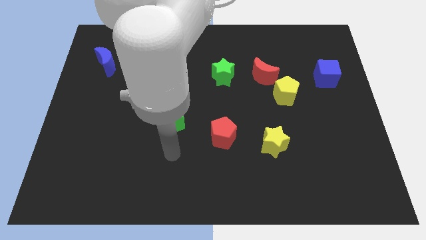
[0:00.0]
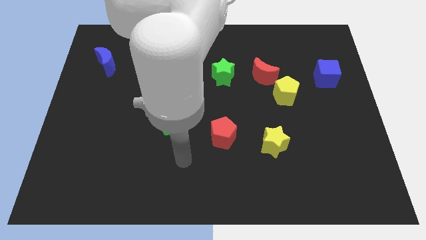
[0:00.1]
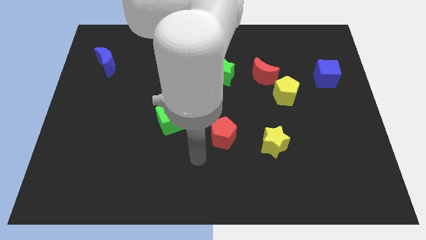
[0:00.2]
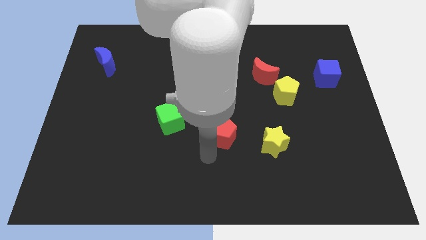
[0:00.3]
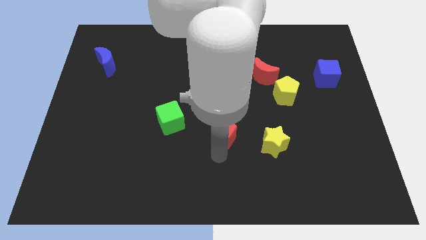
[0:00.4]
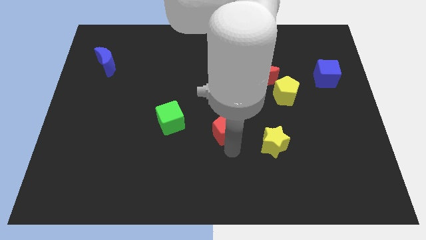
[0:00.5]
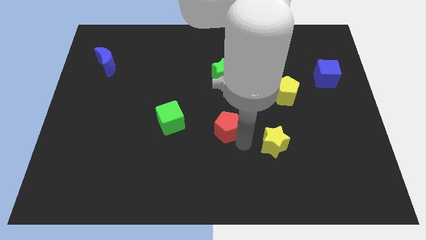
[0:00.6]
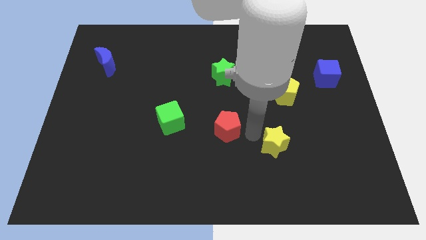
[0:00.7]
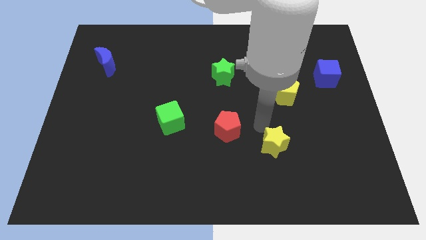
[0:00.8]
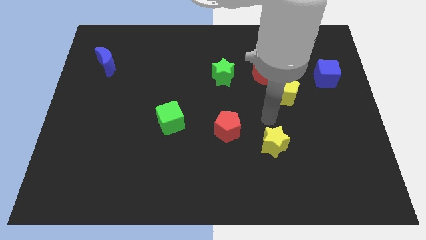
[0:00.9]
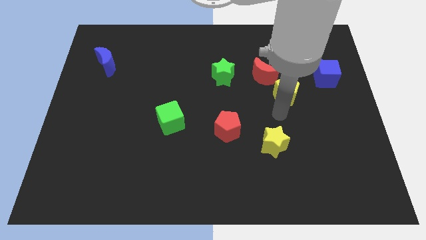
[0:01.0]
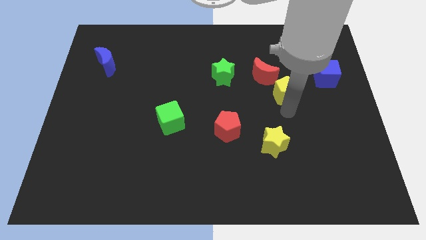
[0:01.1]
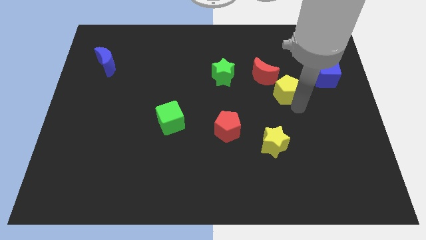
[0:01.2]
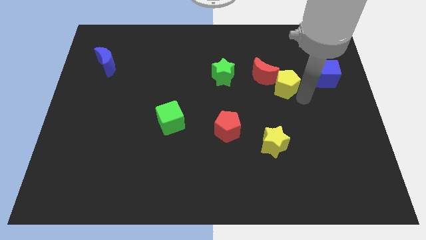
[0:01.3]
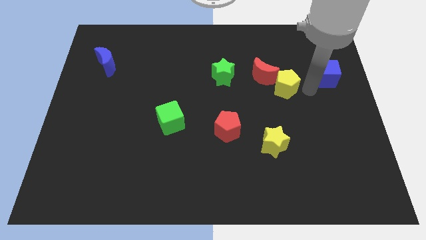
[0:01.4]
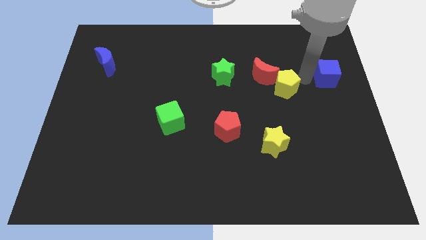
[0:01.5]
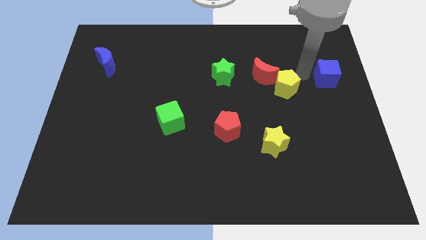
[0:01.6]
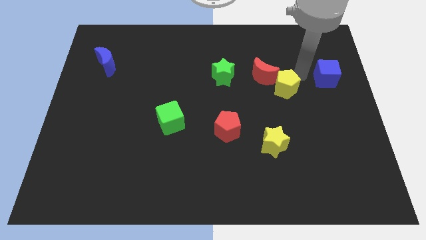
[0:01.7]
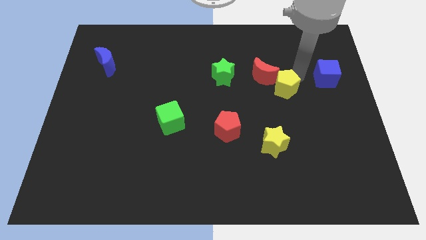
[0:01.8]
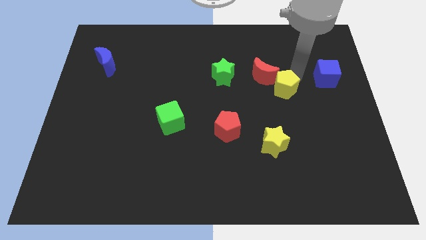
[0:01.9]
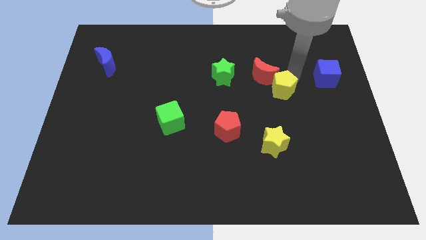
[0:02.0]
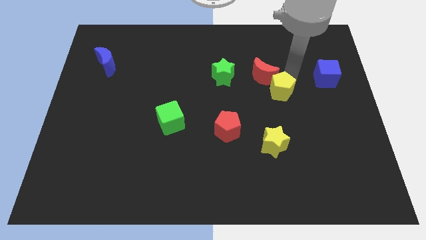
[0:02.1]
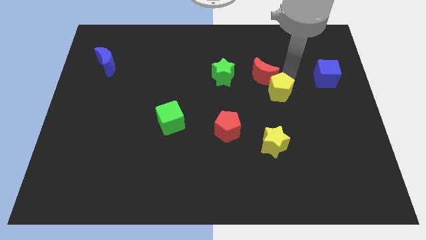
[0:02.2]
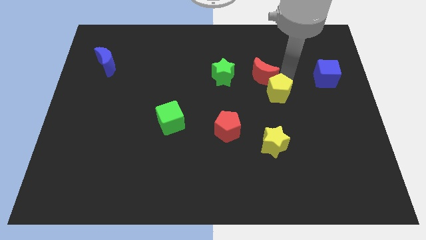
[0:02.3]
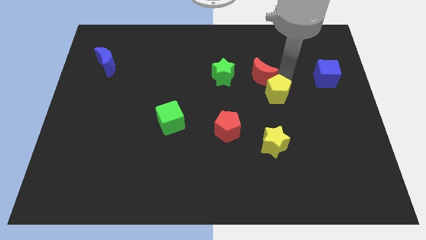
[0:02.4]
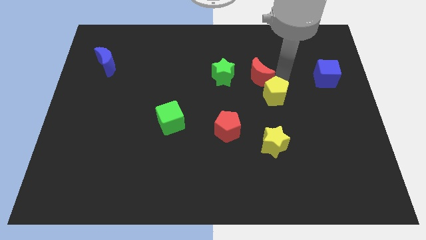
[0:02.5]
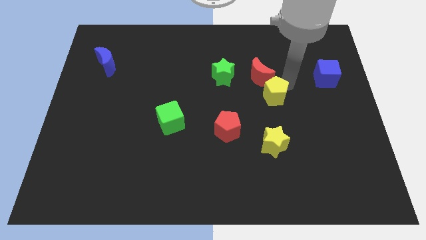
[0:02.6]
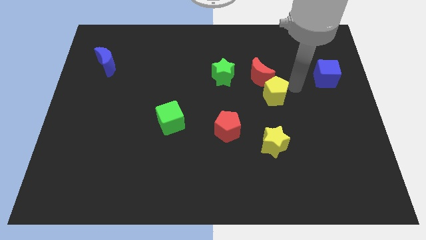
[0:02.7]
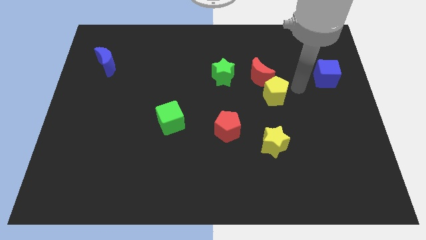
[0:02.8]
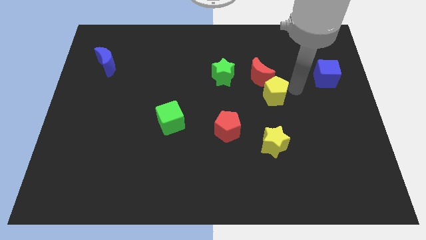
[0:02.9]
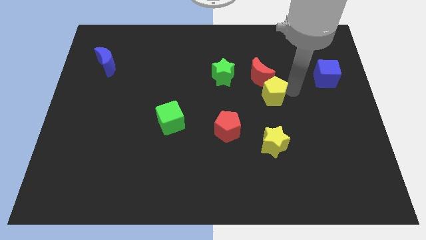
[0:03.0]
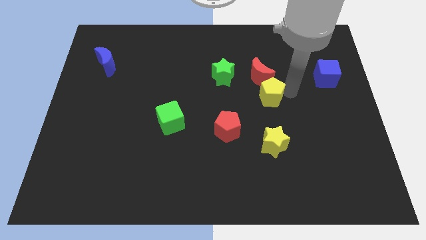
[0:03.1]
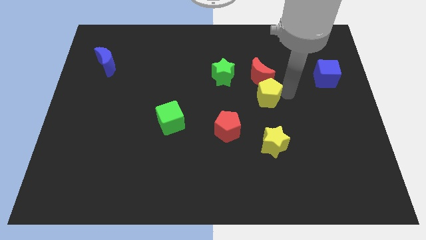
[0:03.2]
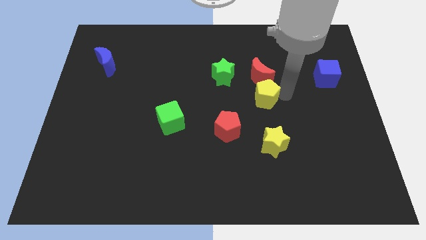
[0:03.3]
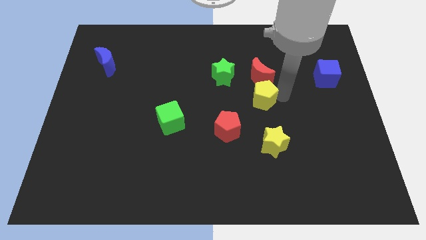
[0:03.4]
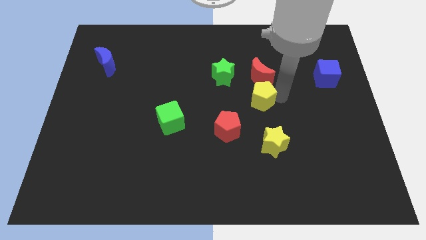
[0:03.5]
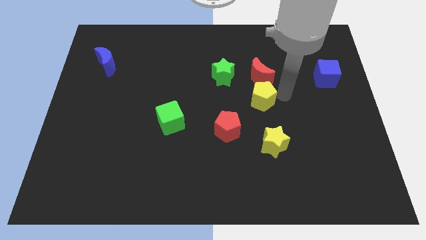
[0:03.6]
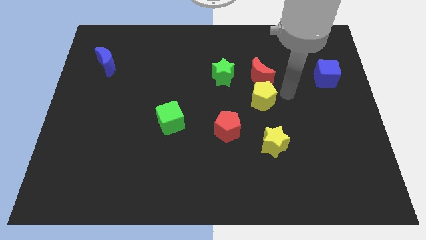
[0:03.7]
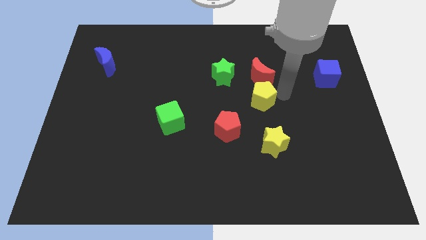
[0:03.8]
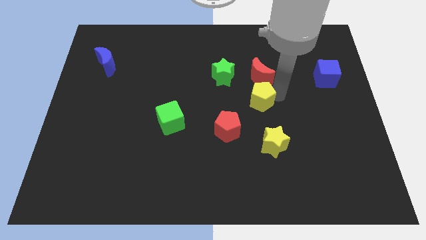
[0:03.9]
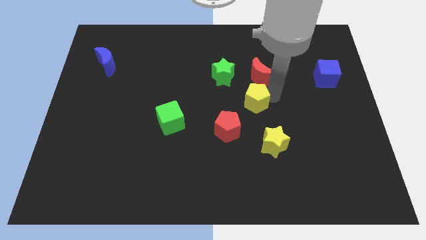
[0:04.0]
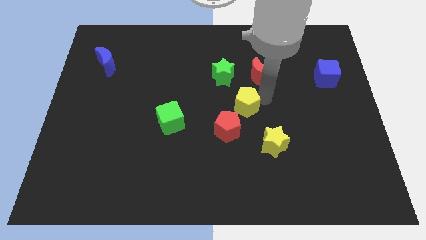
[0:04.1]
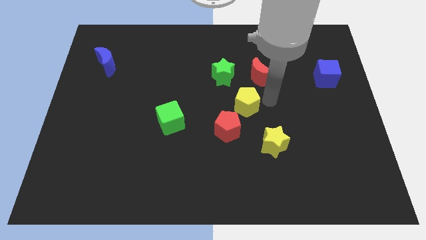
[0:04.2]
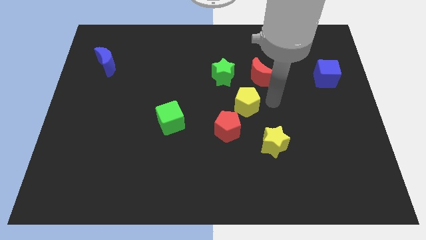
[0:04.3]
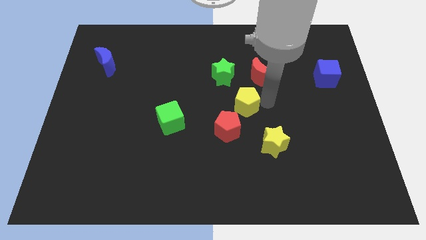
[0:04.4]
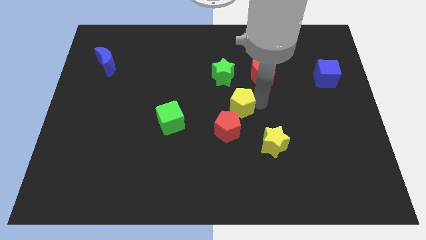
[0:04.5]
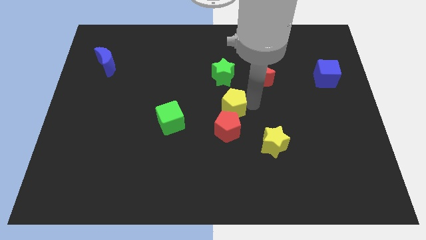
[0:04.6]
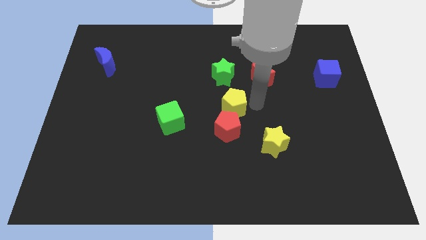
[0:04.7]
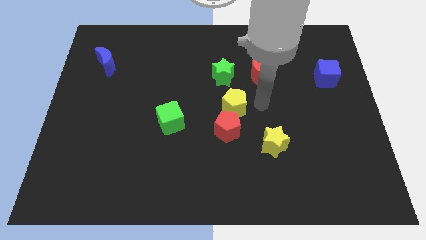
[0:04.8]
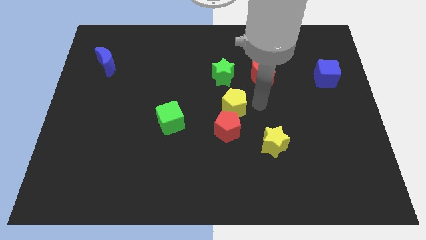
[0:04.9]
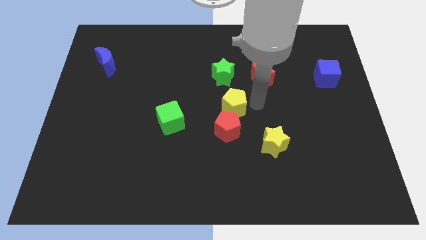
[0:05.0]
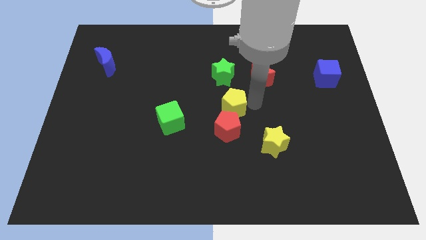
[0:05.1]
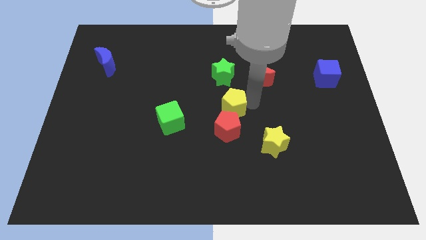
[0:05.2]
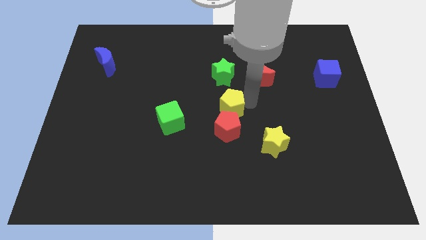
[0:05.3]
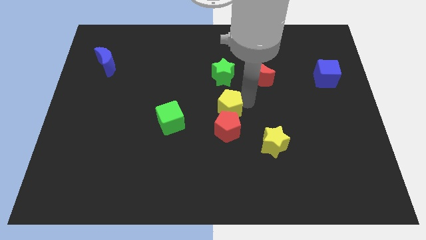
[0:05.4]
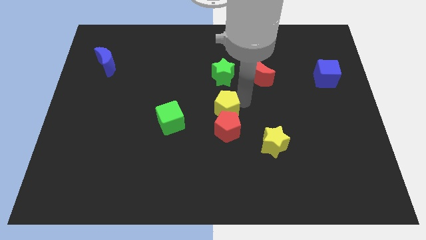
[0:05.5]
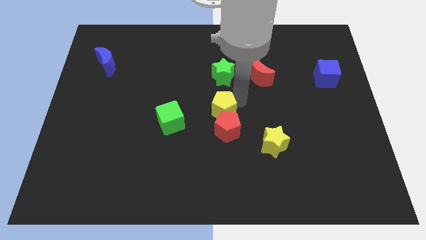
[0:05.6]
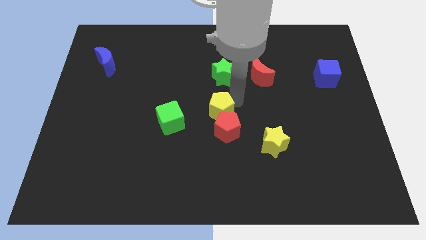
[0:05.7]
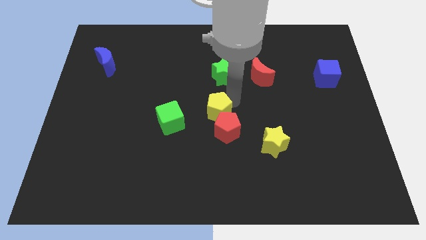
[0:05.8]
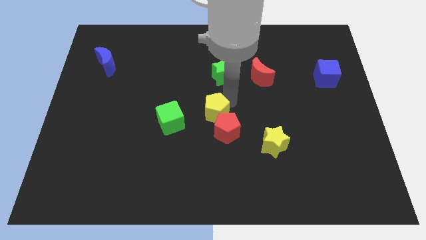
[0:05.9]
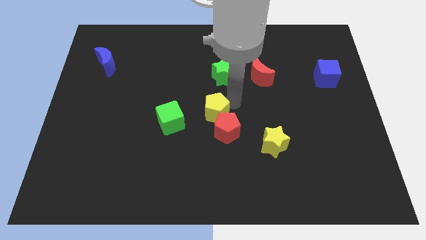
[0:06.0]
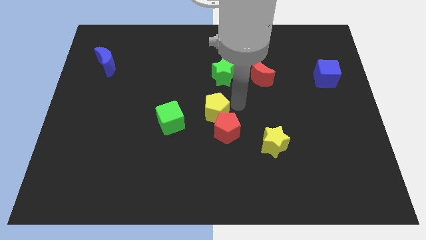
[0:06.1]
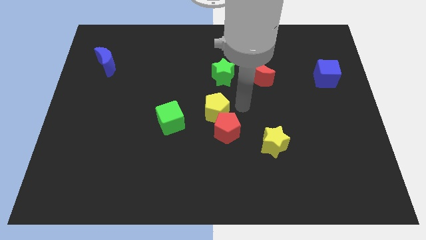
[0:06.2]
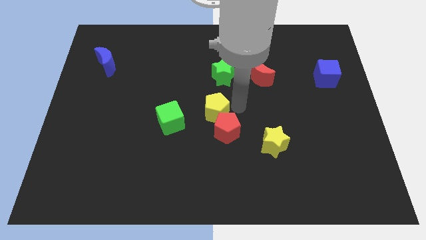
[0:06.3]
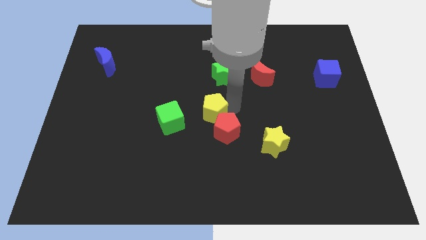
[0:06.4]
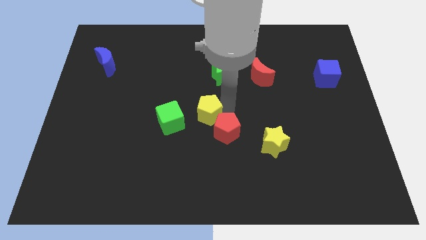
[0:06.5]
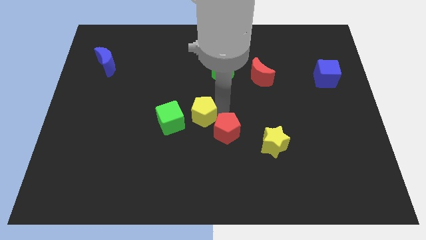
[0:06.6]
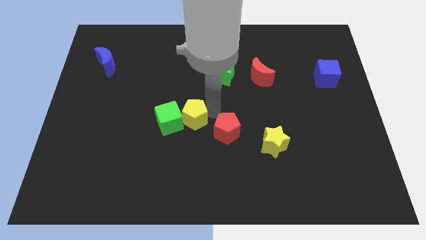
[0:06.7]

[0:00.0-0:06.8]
push the yellow pentagon towards the green cube

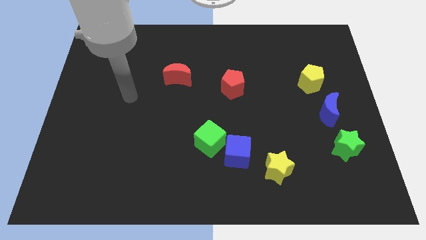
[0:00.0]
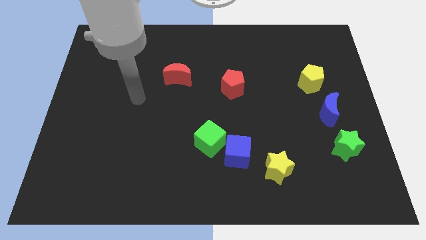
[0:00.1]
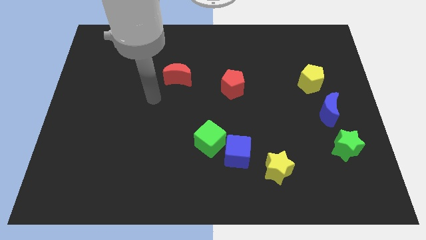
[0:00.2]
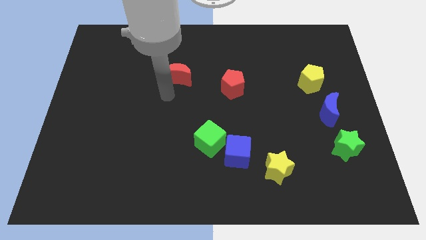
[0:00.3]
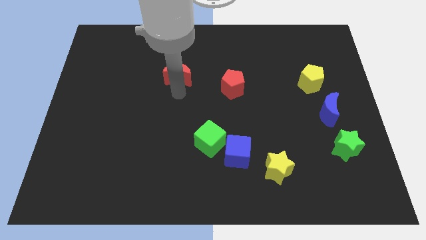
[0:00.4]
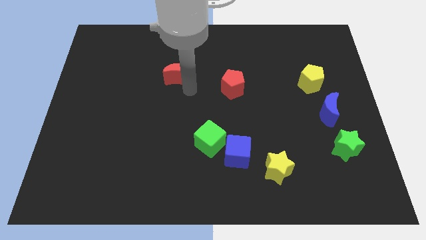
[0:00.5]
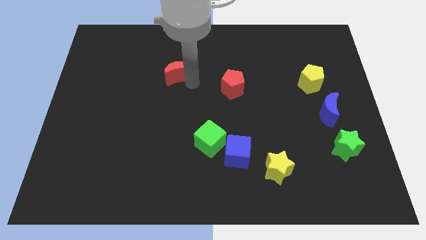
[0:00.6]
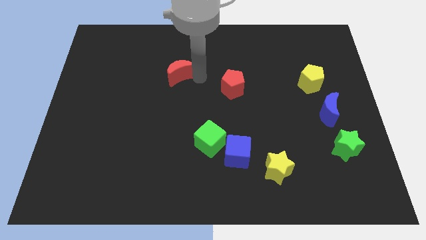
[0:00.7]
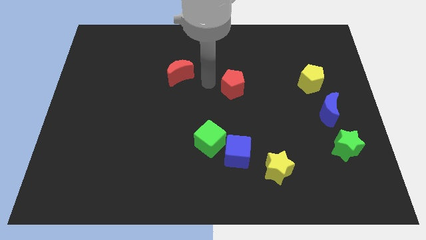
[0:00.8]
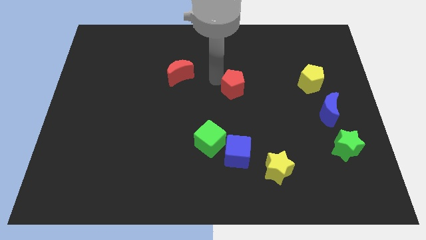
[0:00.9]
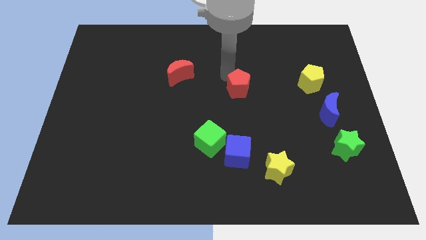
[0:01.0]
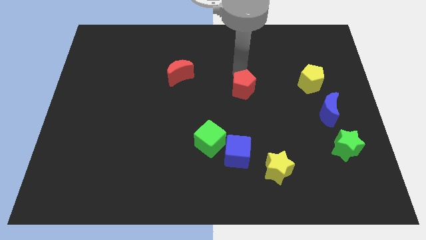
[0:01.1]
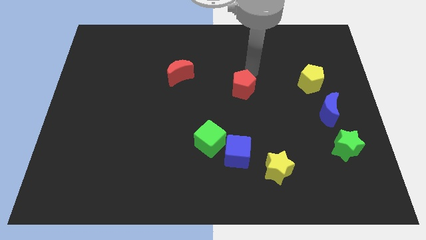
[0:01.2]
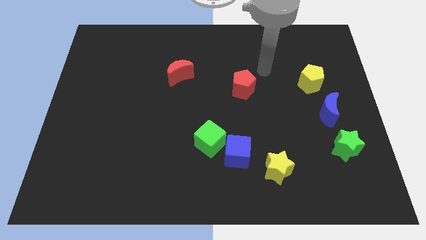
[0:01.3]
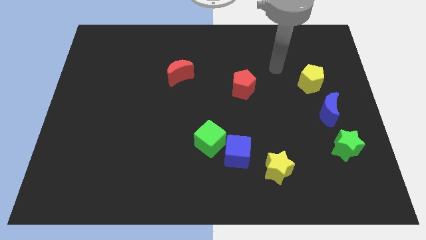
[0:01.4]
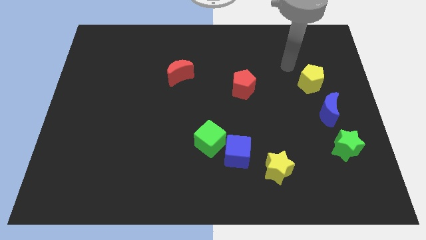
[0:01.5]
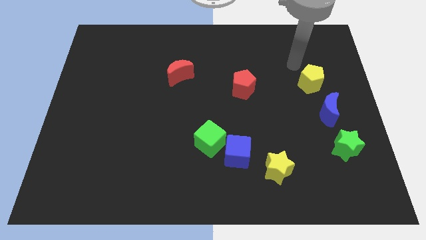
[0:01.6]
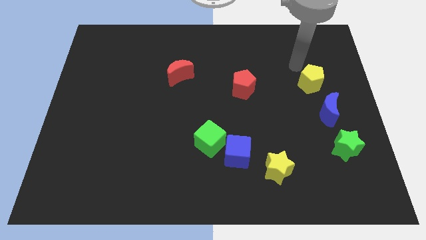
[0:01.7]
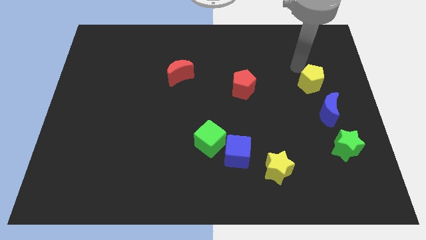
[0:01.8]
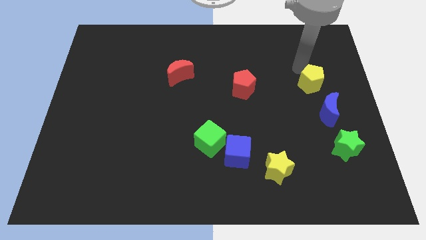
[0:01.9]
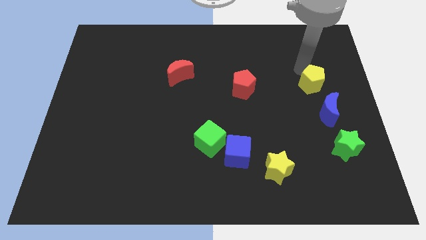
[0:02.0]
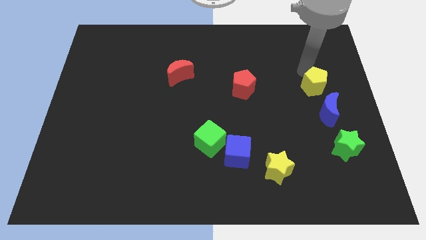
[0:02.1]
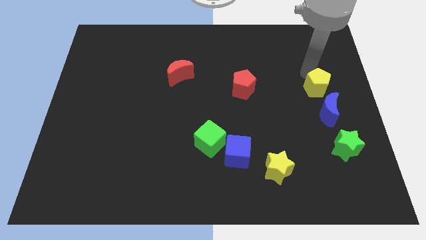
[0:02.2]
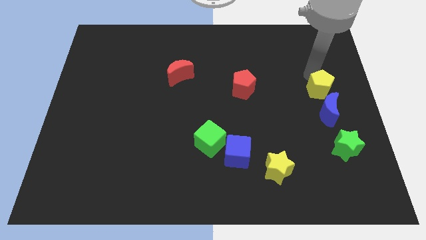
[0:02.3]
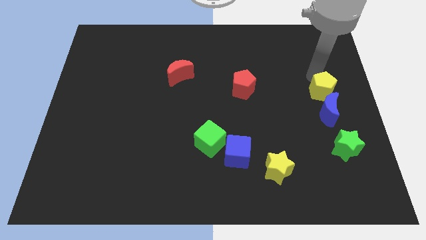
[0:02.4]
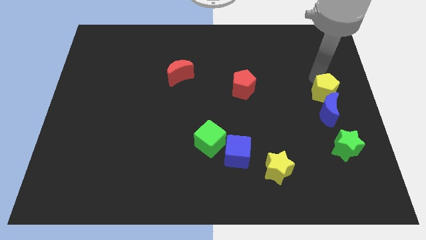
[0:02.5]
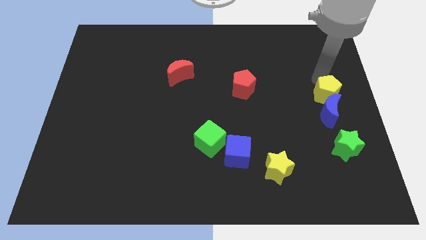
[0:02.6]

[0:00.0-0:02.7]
slide the yellow pentagon next to the blue moon
